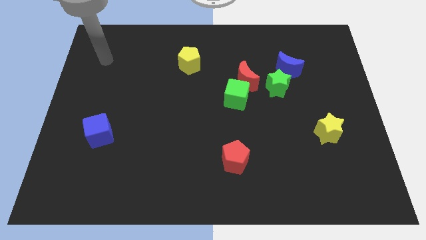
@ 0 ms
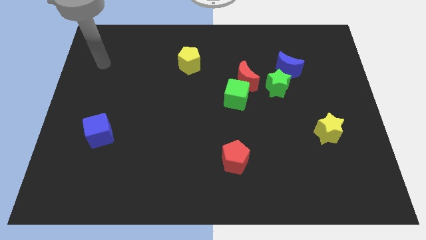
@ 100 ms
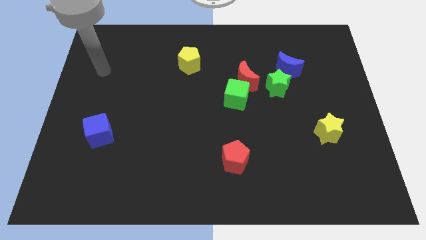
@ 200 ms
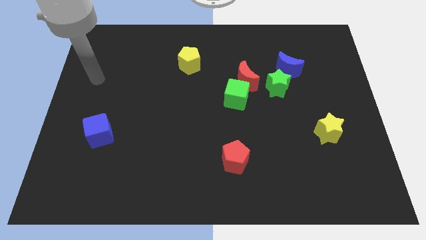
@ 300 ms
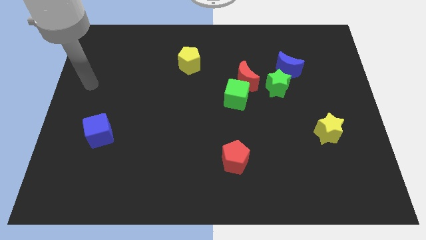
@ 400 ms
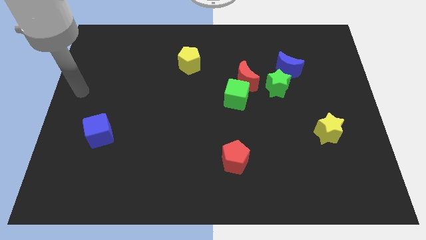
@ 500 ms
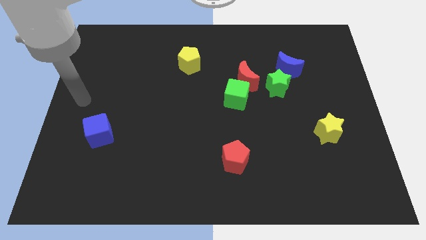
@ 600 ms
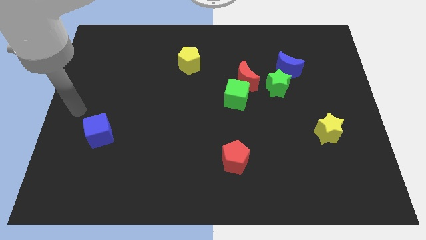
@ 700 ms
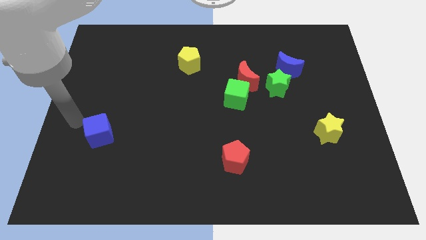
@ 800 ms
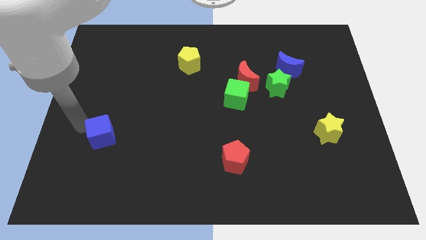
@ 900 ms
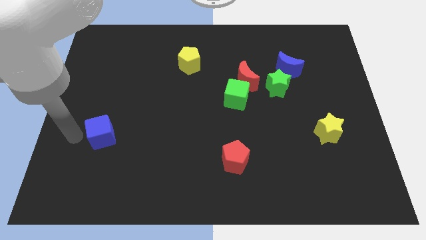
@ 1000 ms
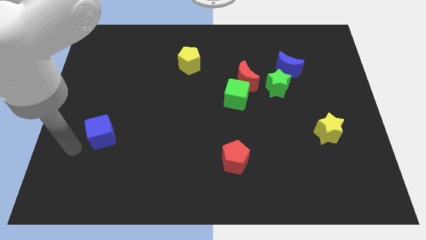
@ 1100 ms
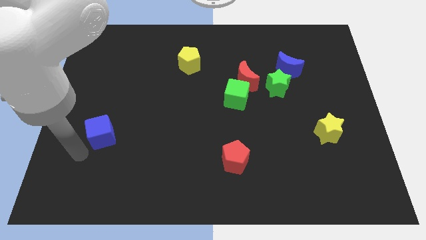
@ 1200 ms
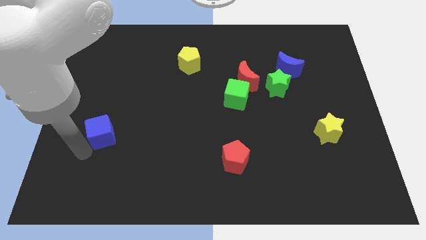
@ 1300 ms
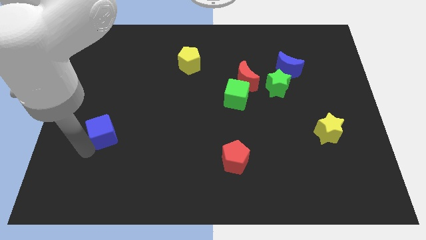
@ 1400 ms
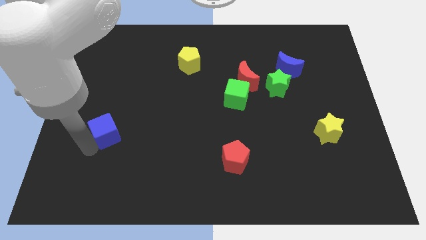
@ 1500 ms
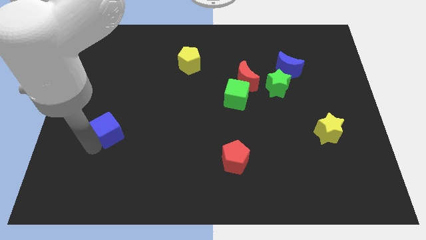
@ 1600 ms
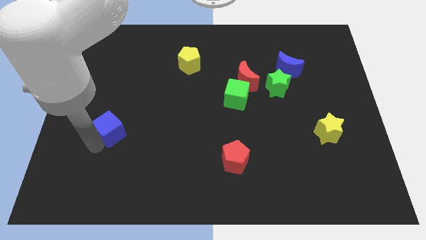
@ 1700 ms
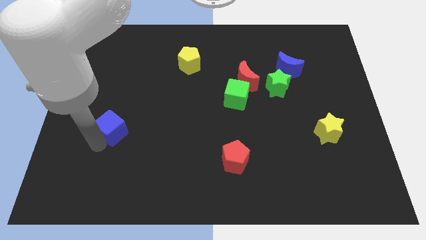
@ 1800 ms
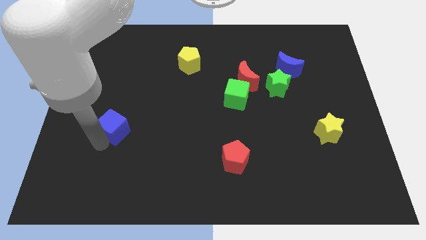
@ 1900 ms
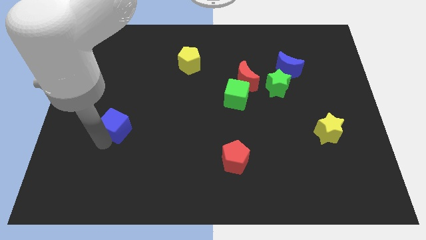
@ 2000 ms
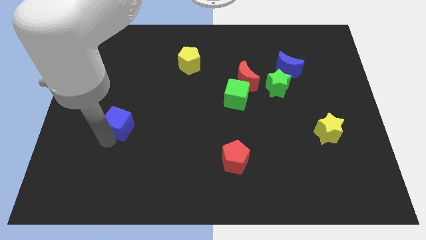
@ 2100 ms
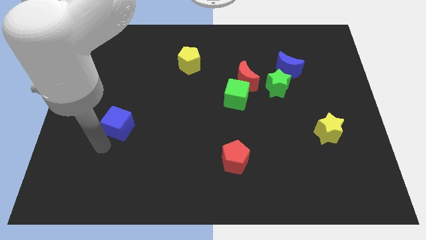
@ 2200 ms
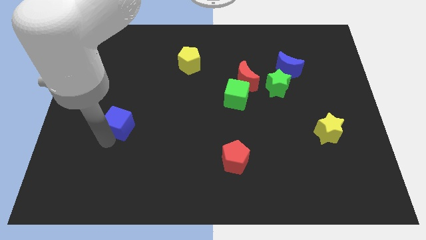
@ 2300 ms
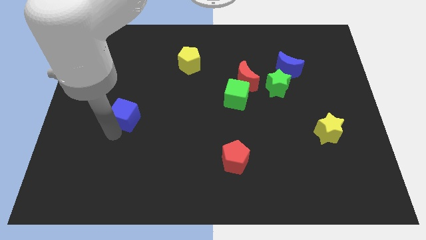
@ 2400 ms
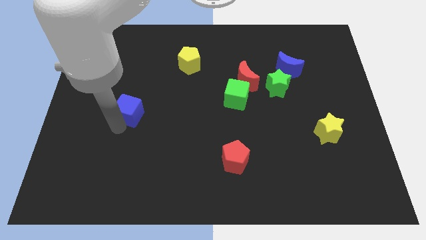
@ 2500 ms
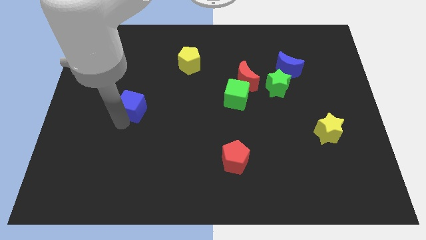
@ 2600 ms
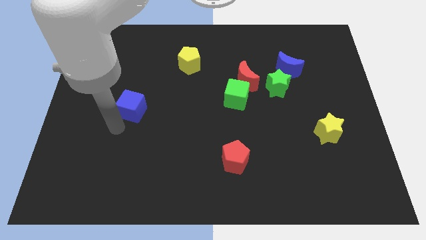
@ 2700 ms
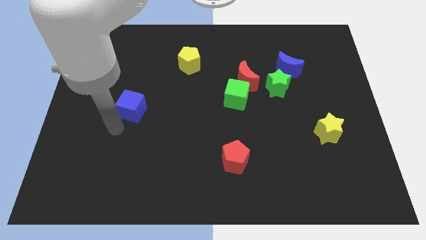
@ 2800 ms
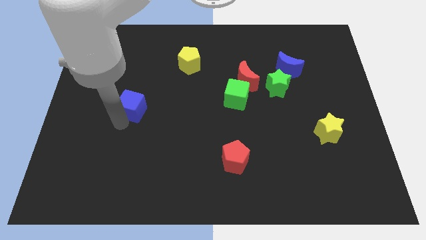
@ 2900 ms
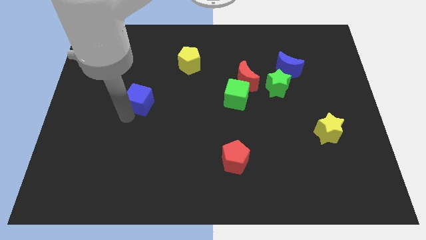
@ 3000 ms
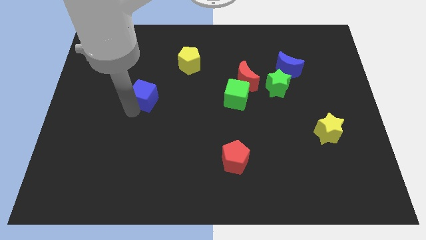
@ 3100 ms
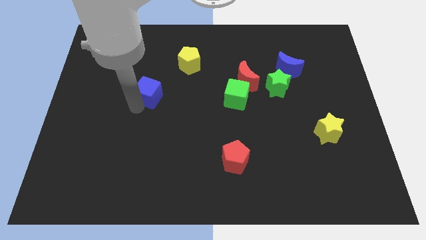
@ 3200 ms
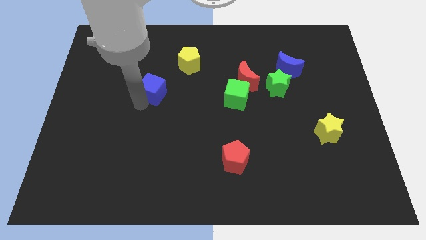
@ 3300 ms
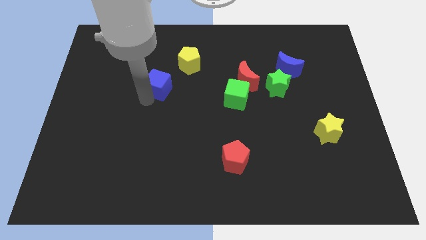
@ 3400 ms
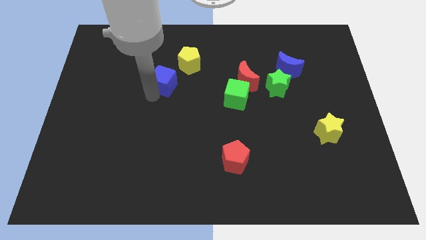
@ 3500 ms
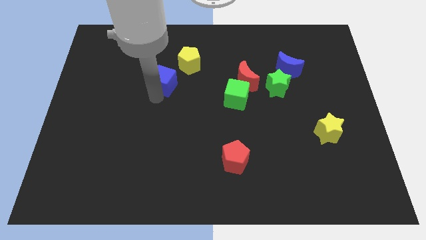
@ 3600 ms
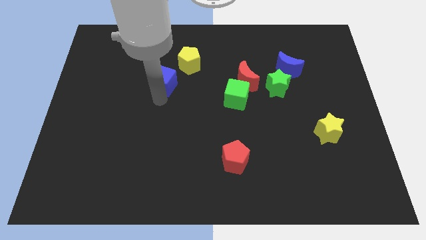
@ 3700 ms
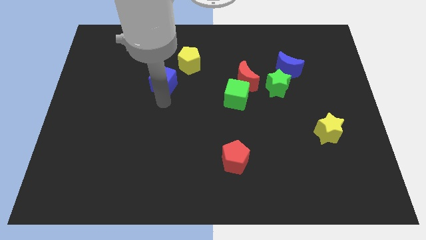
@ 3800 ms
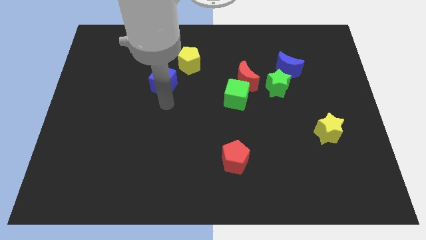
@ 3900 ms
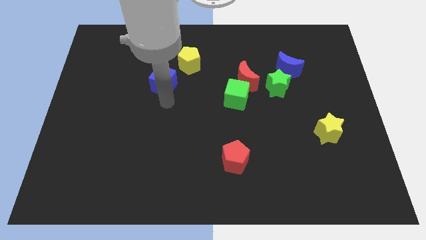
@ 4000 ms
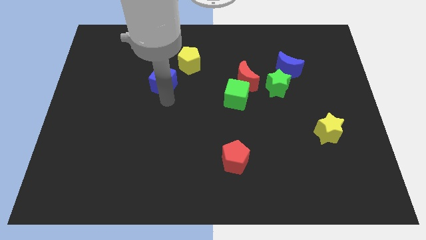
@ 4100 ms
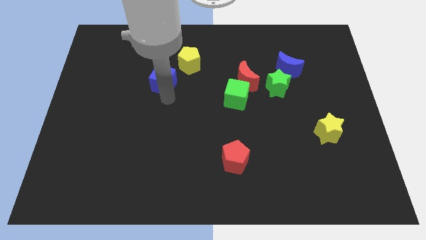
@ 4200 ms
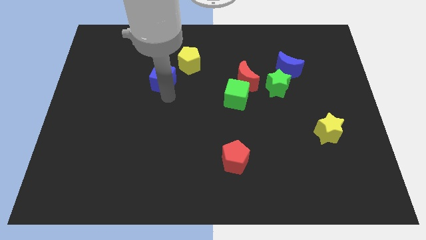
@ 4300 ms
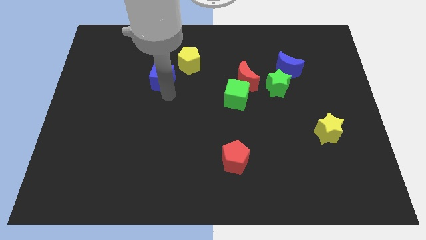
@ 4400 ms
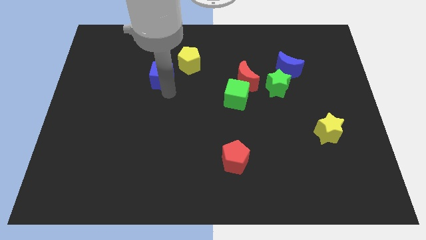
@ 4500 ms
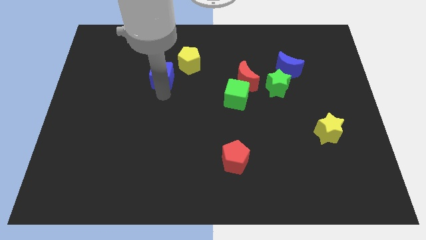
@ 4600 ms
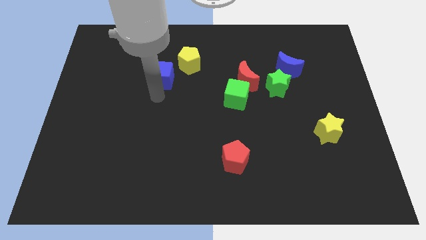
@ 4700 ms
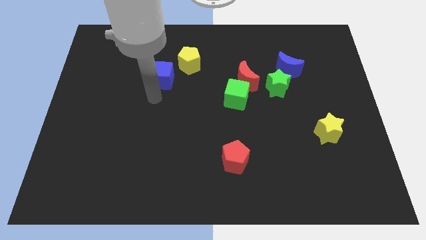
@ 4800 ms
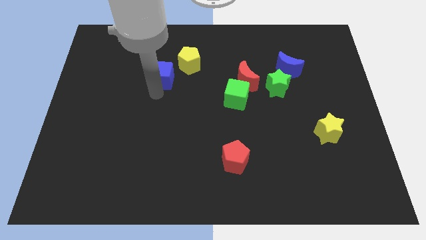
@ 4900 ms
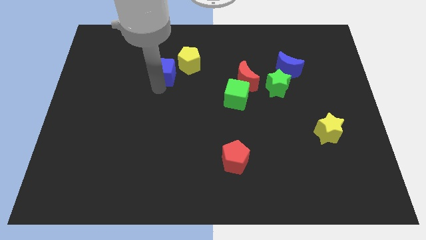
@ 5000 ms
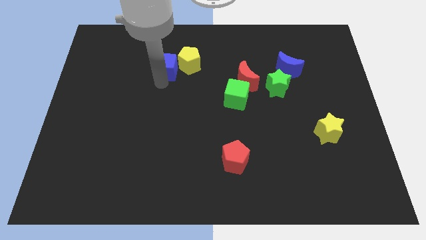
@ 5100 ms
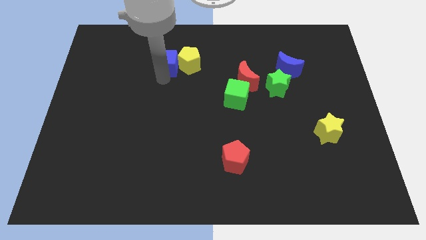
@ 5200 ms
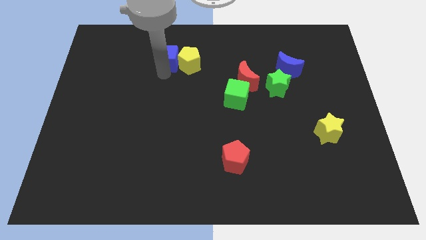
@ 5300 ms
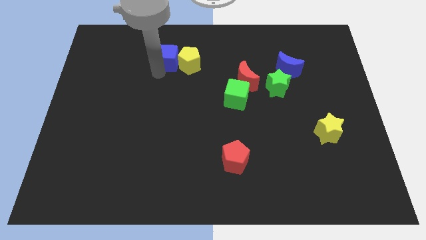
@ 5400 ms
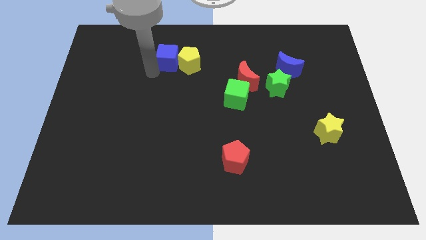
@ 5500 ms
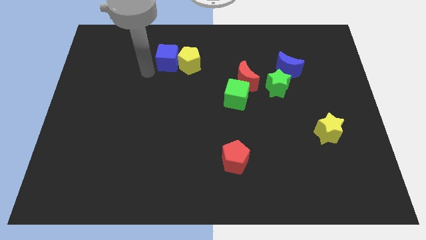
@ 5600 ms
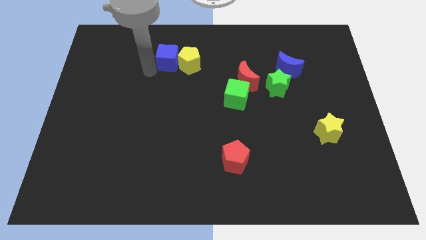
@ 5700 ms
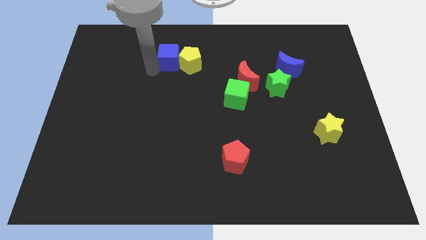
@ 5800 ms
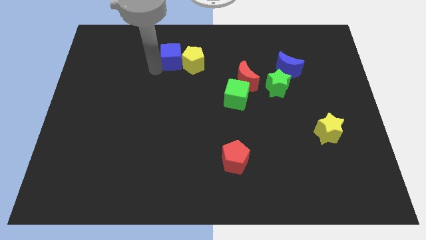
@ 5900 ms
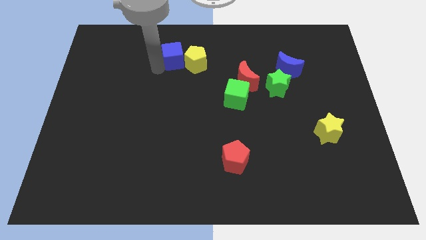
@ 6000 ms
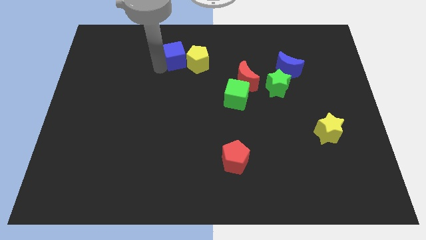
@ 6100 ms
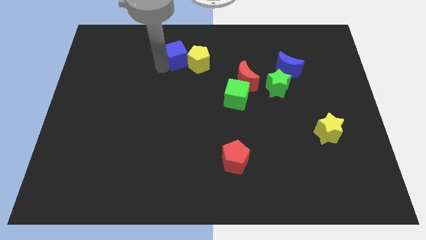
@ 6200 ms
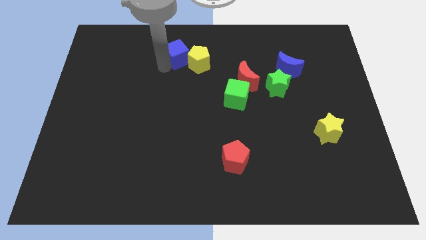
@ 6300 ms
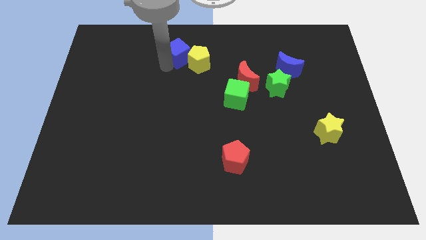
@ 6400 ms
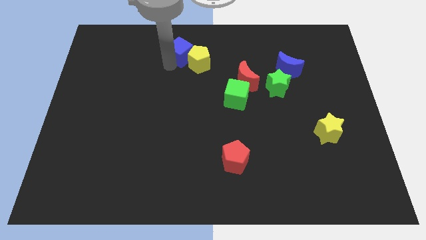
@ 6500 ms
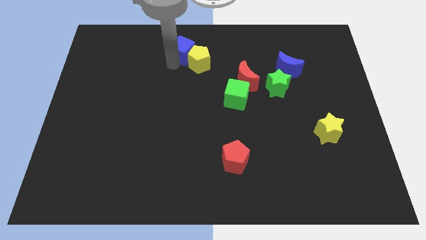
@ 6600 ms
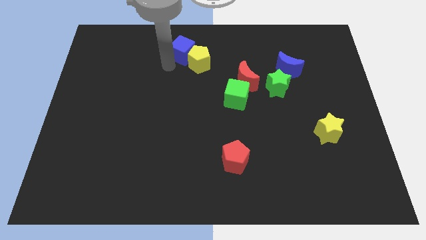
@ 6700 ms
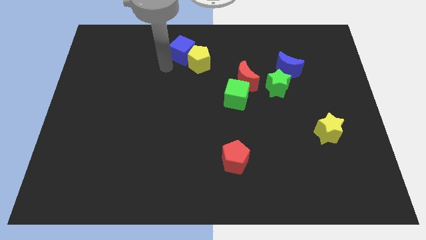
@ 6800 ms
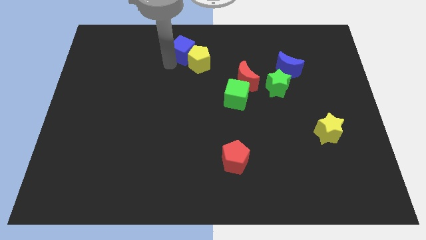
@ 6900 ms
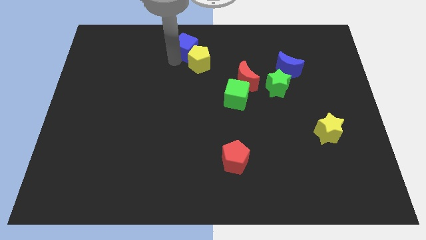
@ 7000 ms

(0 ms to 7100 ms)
move the blue cube to the top
